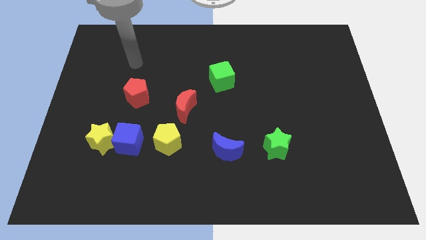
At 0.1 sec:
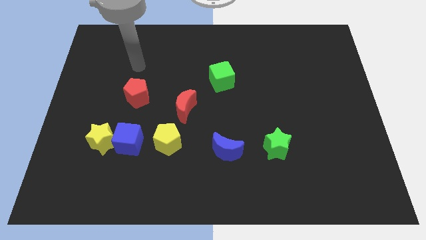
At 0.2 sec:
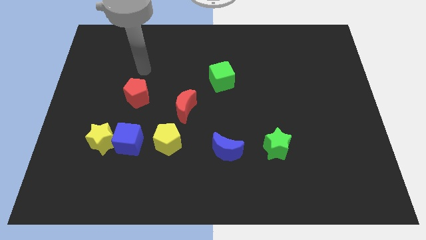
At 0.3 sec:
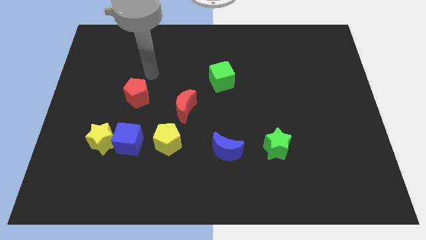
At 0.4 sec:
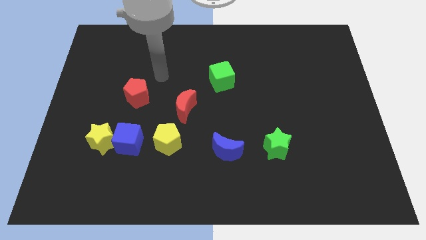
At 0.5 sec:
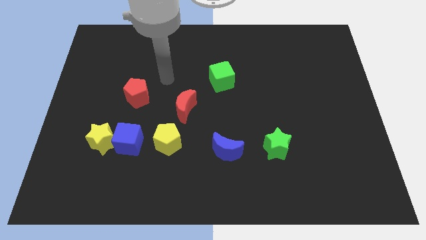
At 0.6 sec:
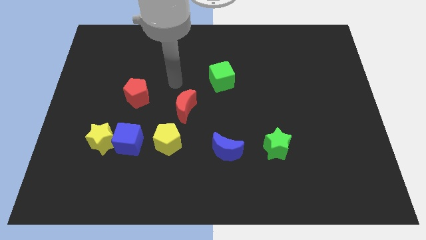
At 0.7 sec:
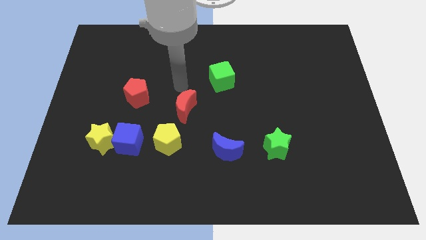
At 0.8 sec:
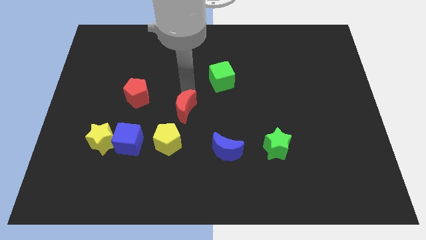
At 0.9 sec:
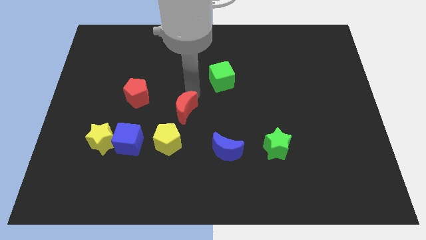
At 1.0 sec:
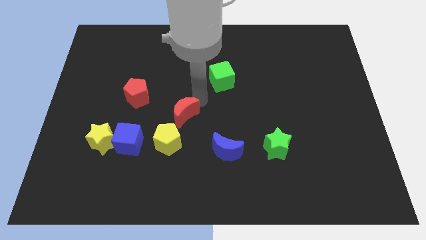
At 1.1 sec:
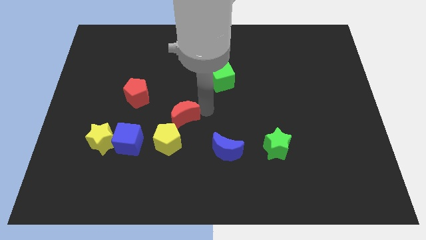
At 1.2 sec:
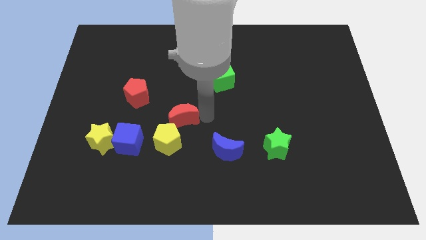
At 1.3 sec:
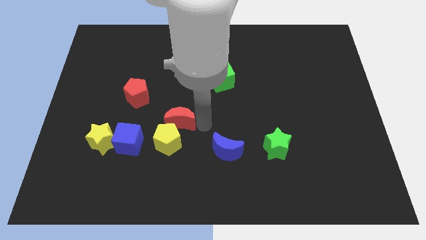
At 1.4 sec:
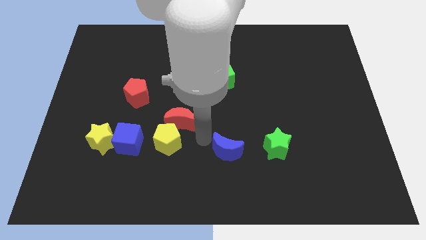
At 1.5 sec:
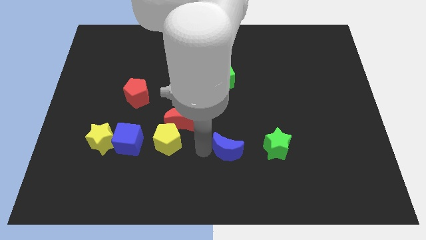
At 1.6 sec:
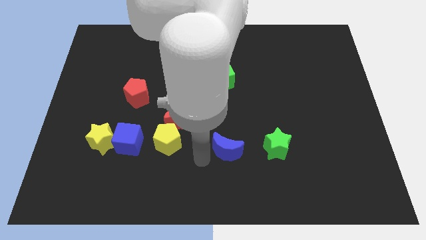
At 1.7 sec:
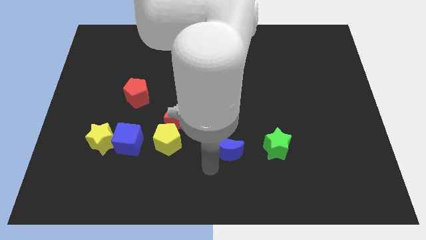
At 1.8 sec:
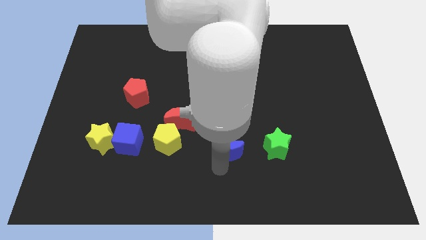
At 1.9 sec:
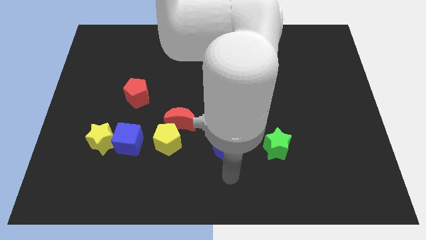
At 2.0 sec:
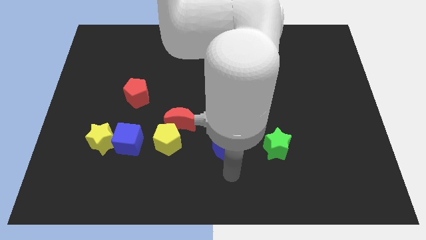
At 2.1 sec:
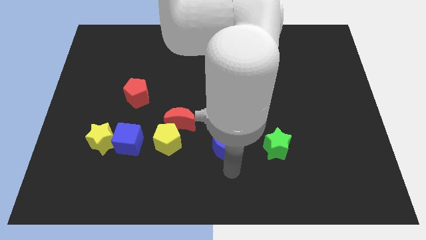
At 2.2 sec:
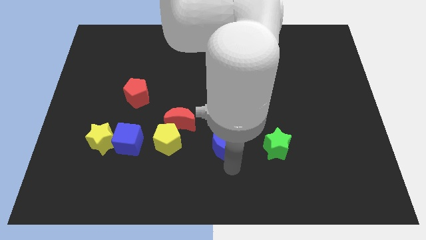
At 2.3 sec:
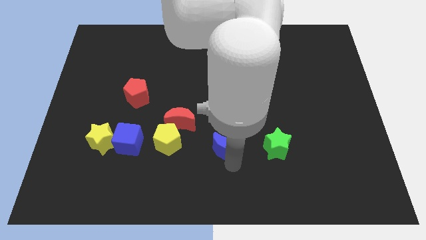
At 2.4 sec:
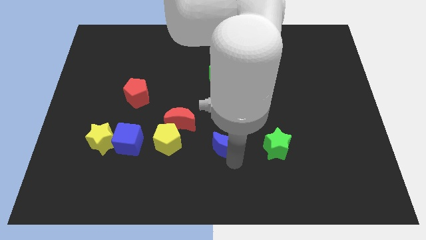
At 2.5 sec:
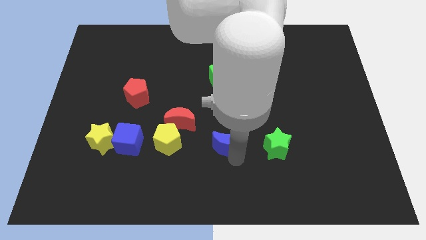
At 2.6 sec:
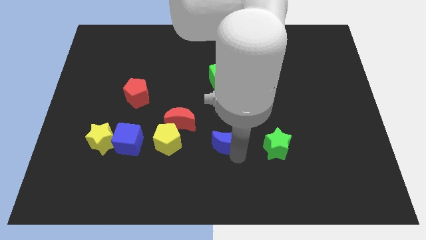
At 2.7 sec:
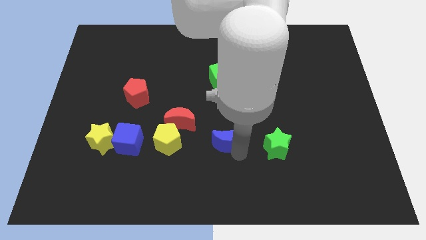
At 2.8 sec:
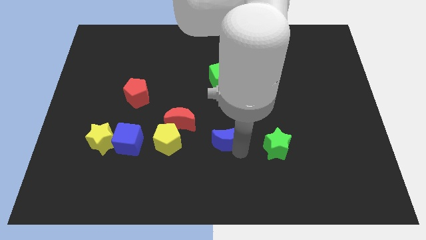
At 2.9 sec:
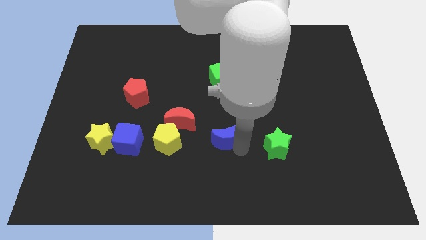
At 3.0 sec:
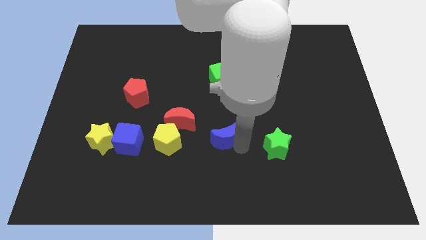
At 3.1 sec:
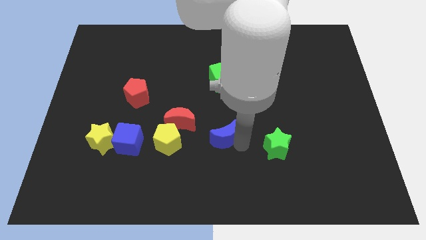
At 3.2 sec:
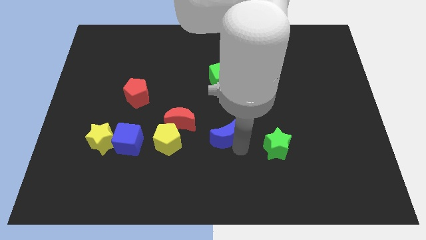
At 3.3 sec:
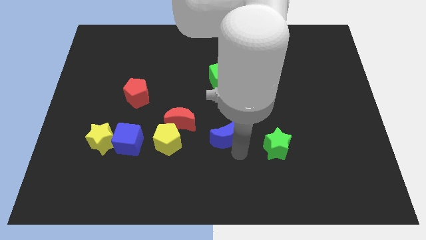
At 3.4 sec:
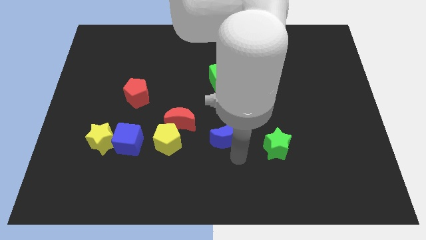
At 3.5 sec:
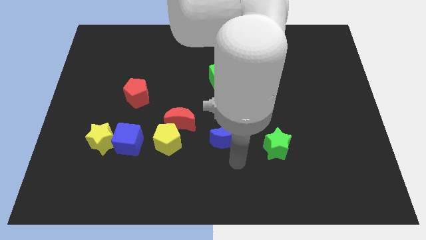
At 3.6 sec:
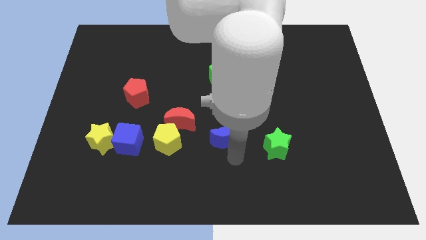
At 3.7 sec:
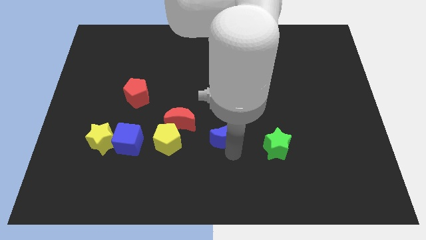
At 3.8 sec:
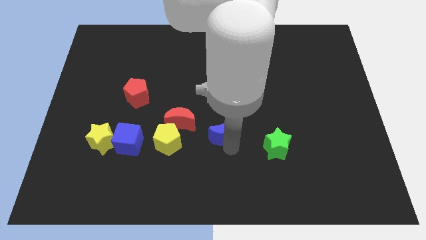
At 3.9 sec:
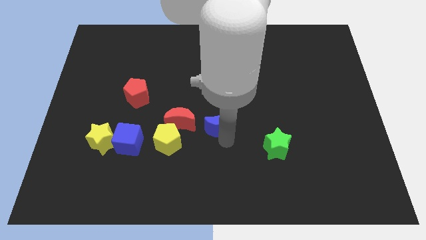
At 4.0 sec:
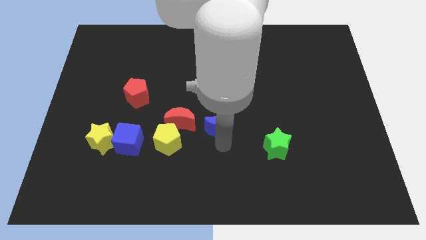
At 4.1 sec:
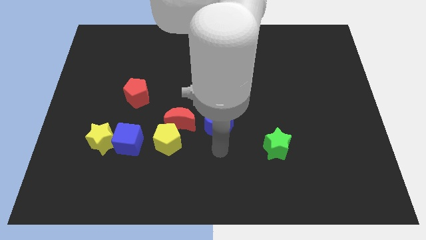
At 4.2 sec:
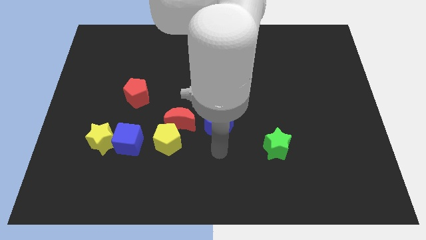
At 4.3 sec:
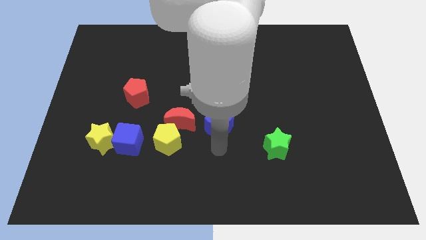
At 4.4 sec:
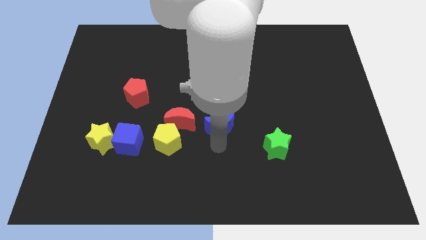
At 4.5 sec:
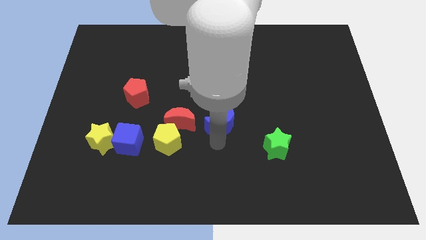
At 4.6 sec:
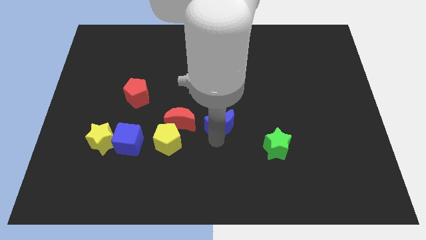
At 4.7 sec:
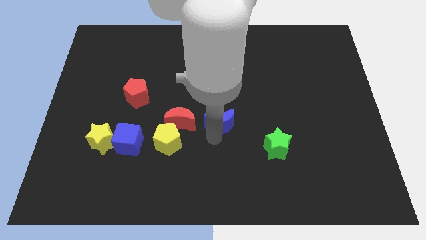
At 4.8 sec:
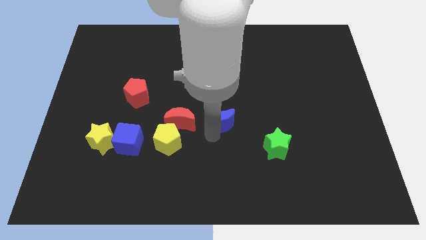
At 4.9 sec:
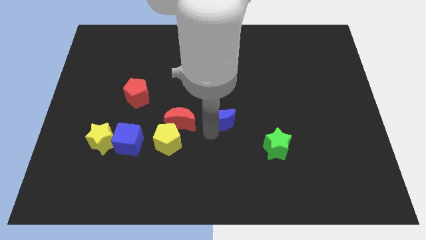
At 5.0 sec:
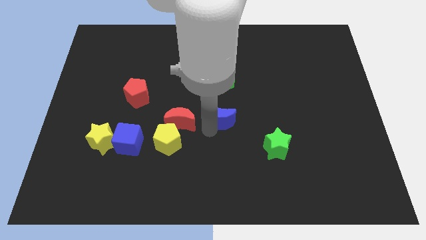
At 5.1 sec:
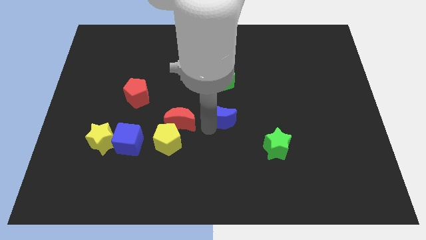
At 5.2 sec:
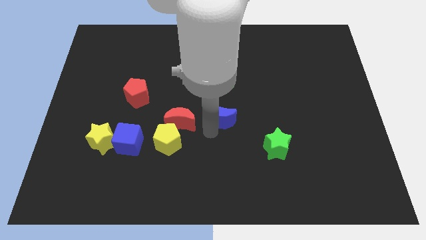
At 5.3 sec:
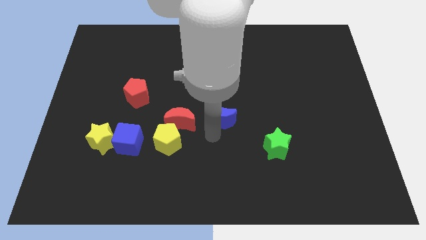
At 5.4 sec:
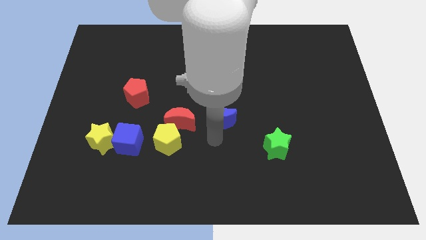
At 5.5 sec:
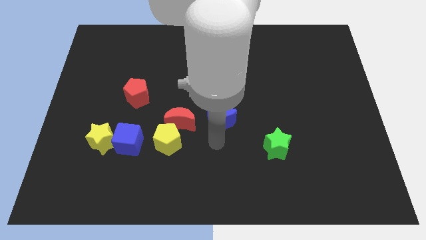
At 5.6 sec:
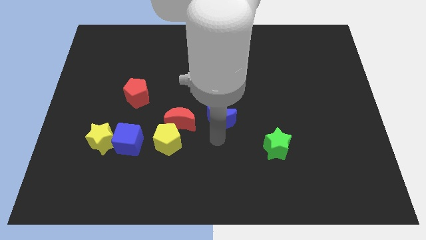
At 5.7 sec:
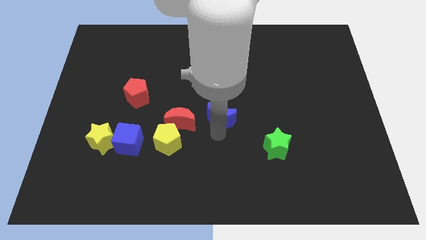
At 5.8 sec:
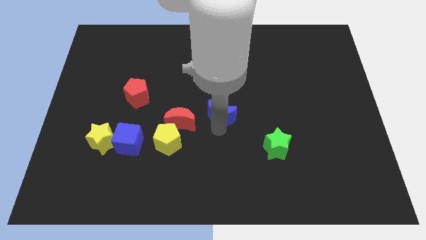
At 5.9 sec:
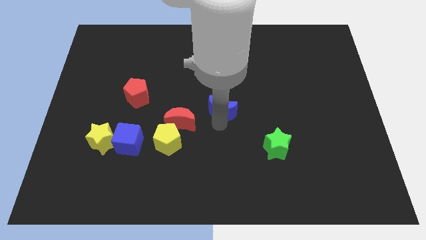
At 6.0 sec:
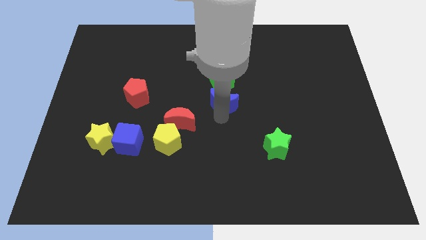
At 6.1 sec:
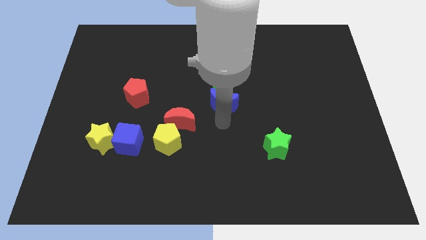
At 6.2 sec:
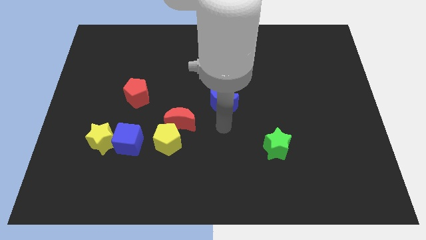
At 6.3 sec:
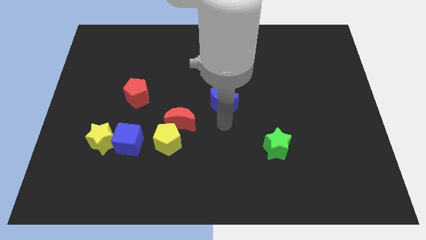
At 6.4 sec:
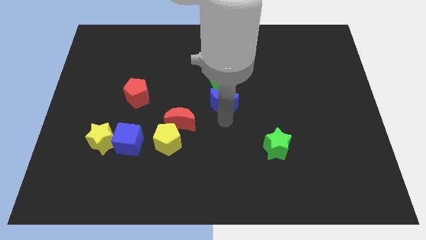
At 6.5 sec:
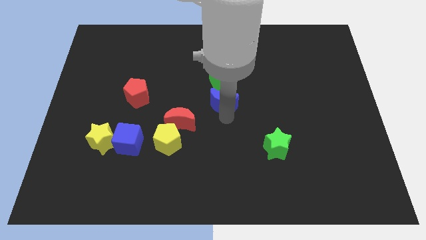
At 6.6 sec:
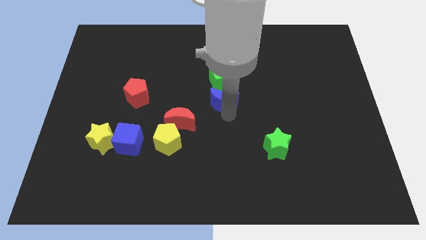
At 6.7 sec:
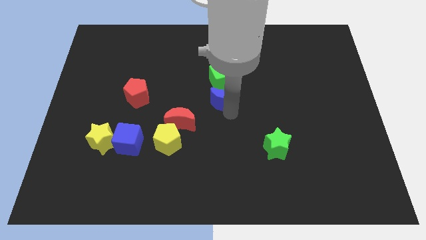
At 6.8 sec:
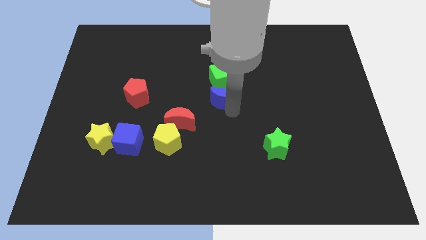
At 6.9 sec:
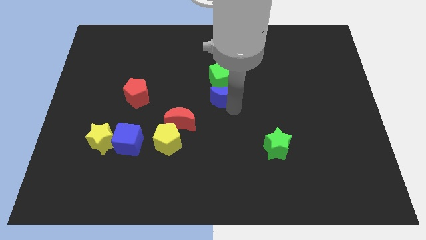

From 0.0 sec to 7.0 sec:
move the blue moon close to the green cube
